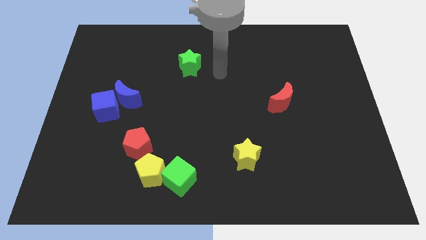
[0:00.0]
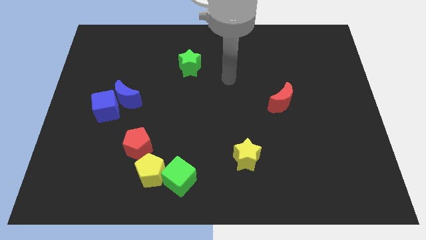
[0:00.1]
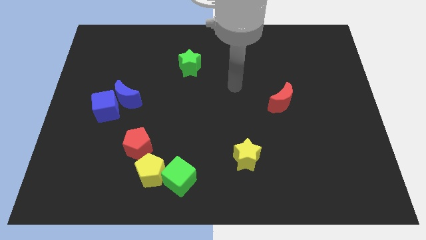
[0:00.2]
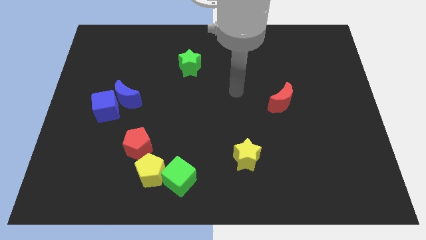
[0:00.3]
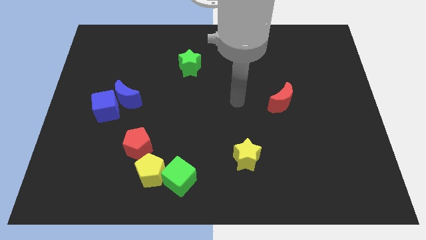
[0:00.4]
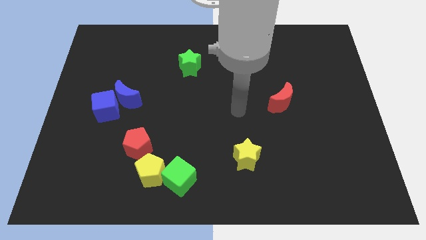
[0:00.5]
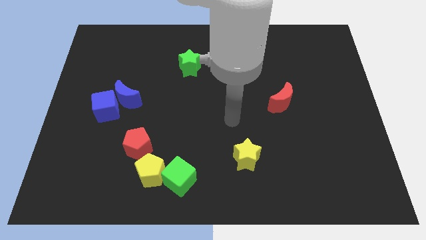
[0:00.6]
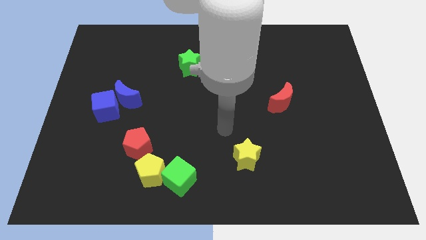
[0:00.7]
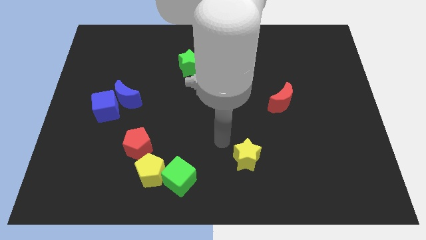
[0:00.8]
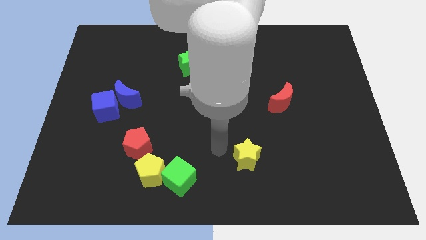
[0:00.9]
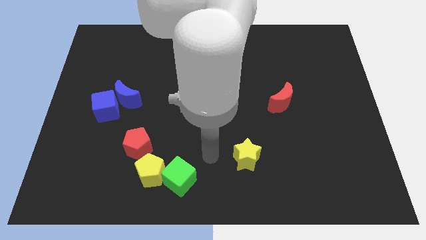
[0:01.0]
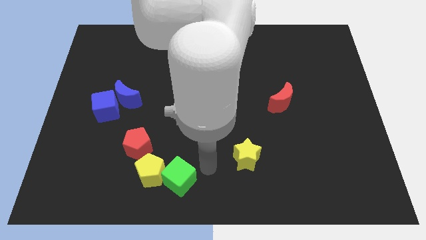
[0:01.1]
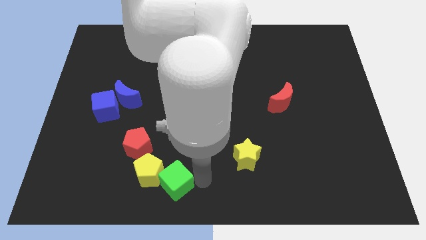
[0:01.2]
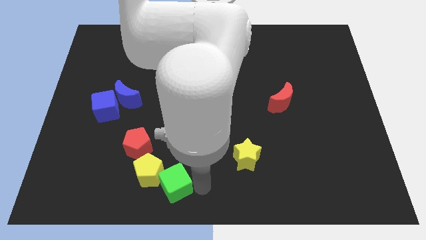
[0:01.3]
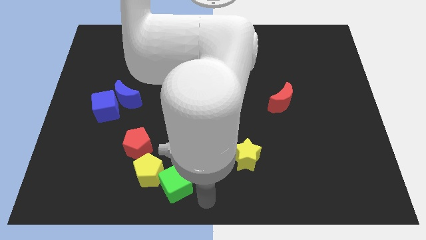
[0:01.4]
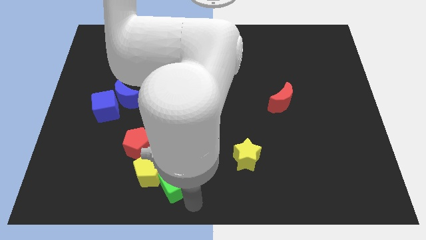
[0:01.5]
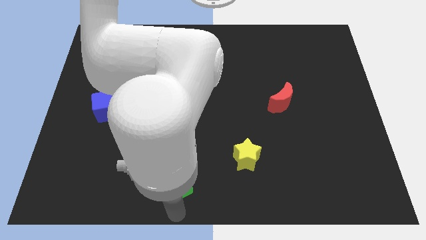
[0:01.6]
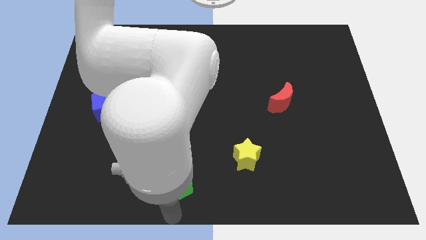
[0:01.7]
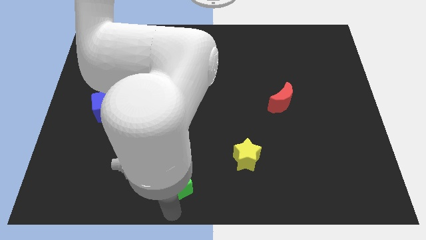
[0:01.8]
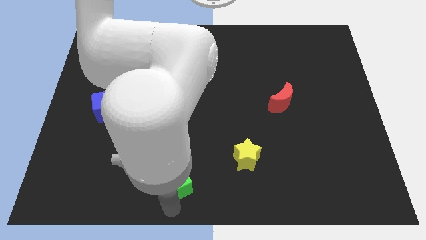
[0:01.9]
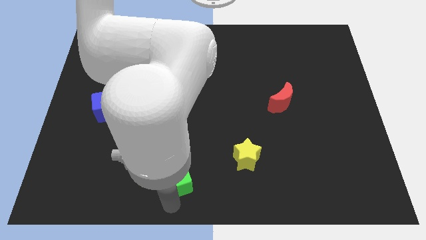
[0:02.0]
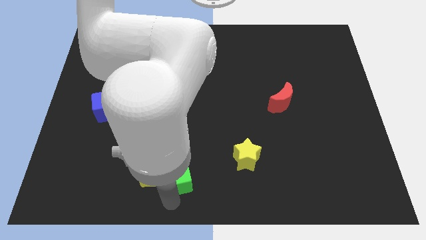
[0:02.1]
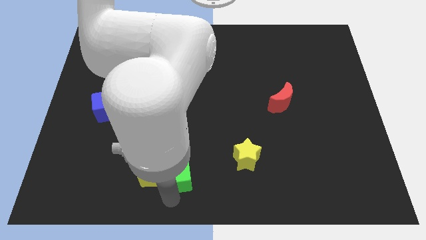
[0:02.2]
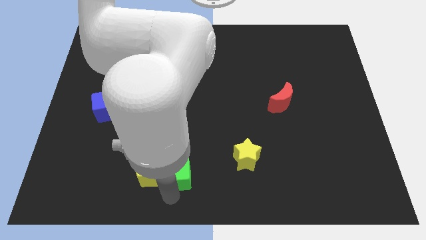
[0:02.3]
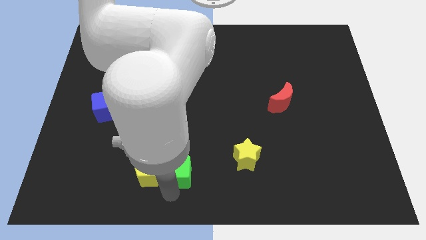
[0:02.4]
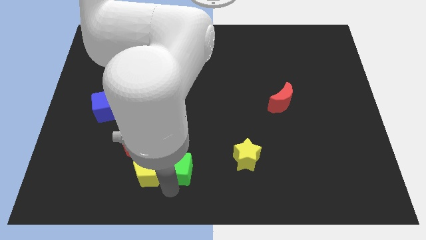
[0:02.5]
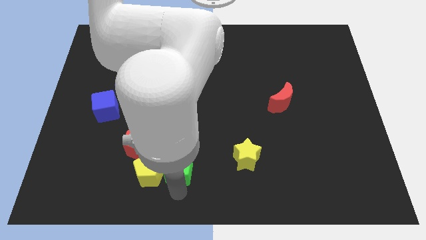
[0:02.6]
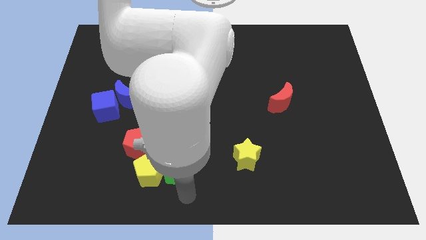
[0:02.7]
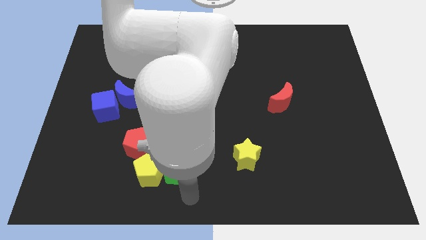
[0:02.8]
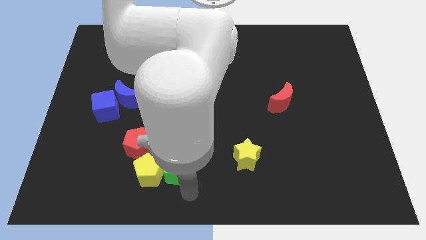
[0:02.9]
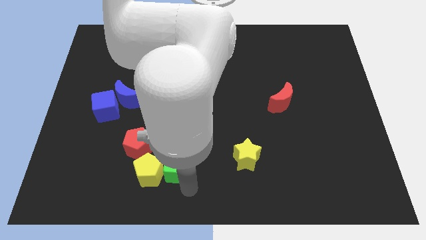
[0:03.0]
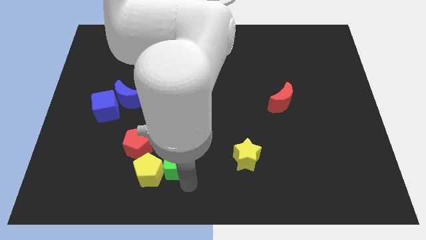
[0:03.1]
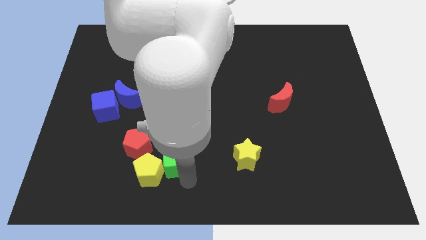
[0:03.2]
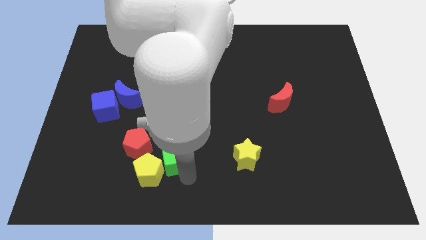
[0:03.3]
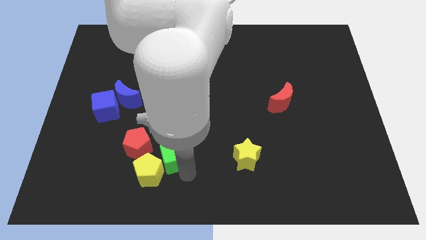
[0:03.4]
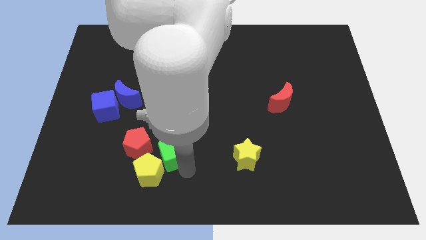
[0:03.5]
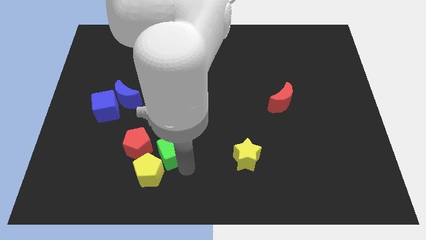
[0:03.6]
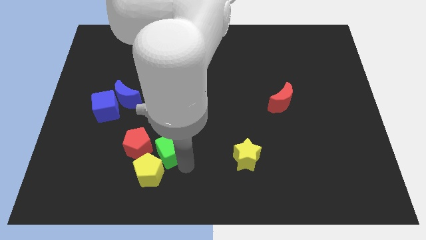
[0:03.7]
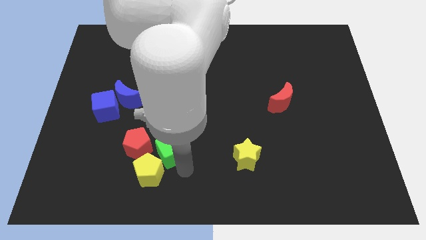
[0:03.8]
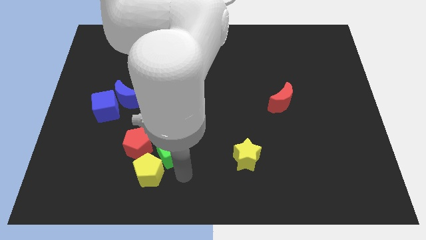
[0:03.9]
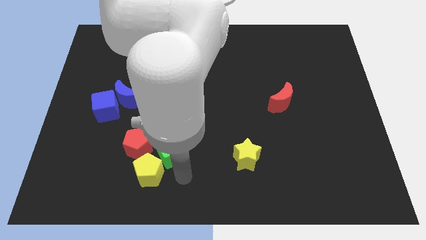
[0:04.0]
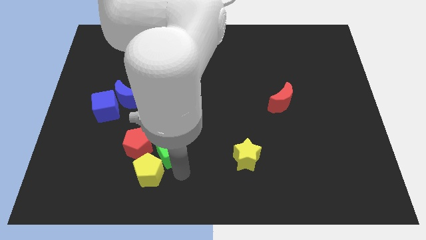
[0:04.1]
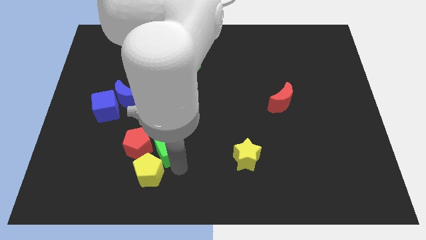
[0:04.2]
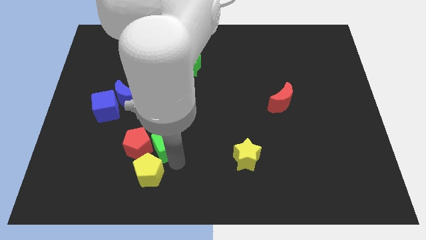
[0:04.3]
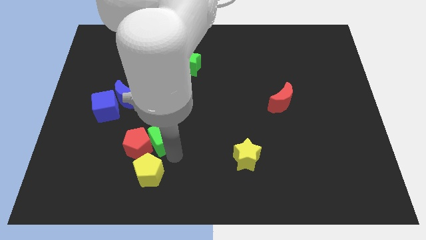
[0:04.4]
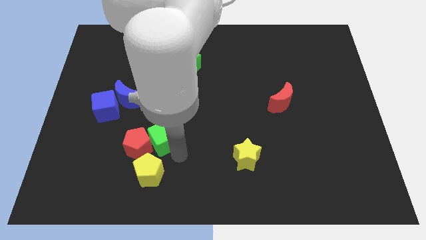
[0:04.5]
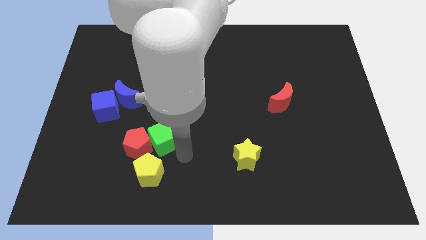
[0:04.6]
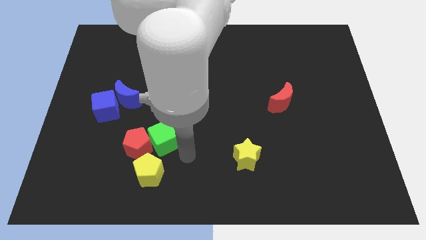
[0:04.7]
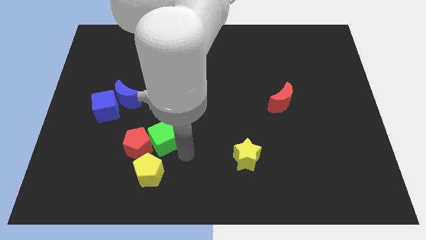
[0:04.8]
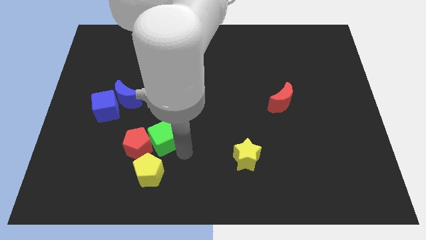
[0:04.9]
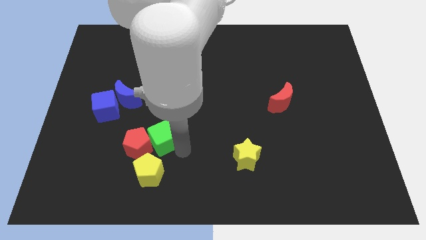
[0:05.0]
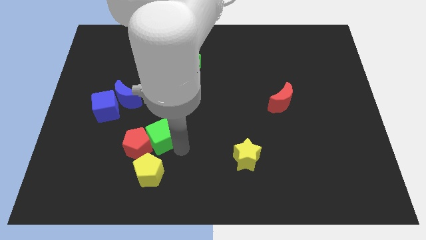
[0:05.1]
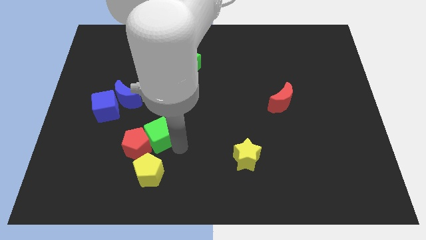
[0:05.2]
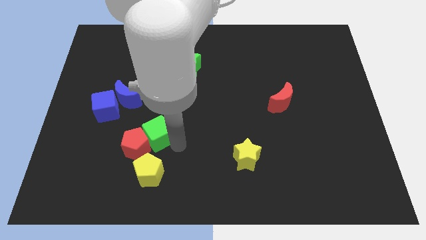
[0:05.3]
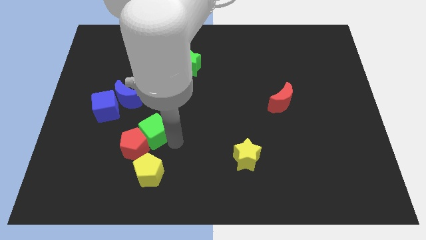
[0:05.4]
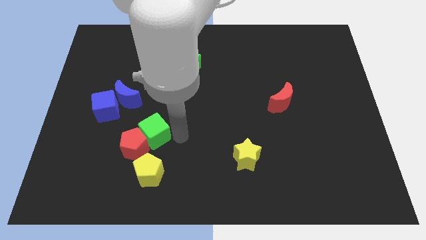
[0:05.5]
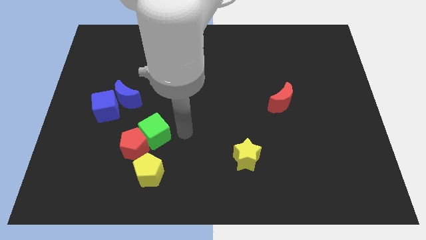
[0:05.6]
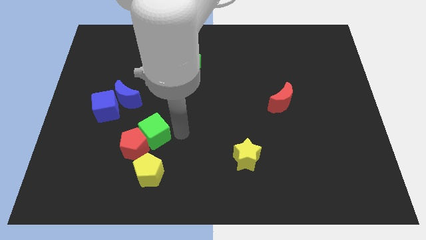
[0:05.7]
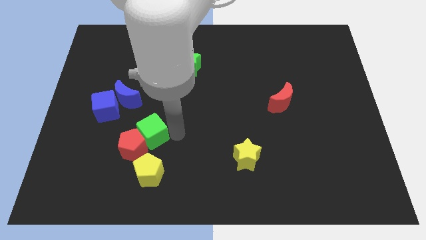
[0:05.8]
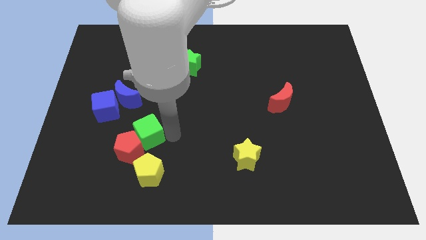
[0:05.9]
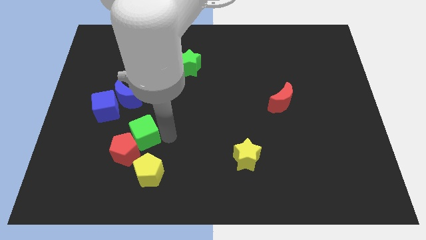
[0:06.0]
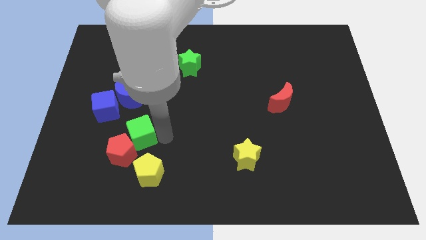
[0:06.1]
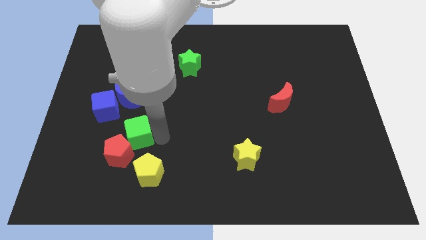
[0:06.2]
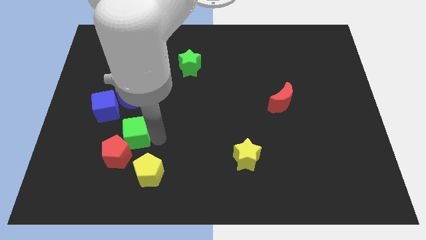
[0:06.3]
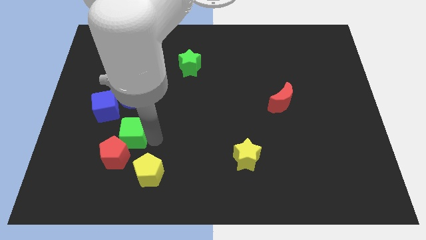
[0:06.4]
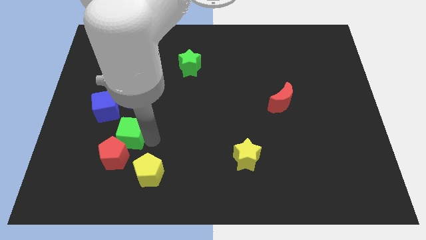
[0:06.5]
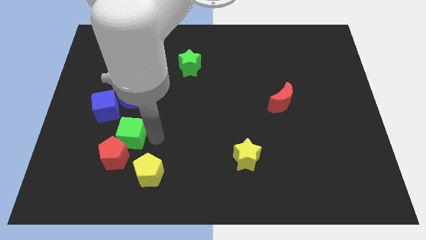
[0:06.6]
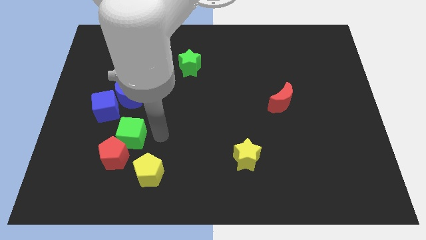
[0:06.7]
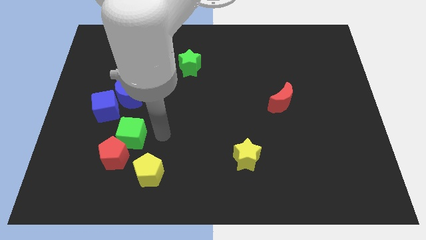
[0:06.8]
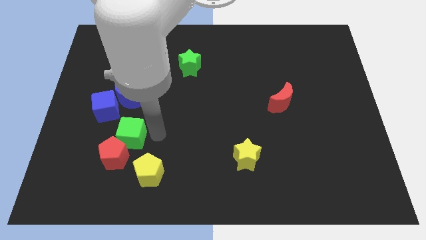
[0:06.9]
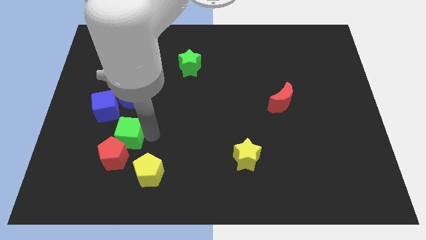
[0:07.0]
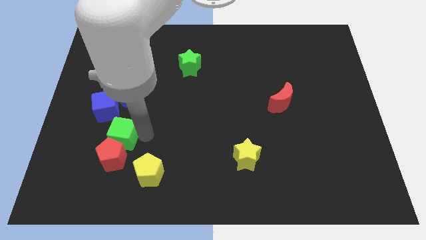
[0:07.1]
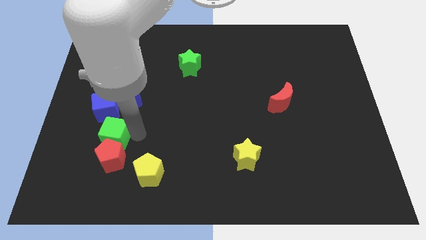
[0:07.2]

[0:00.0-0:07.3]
slide the green cube below the blue cube

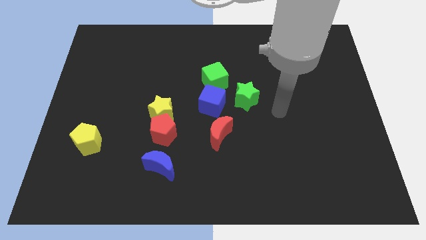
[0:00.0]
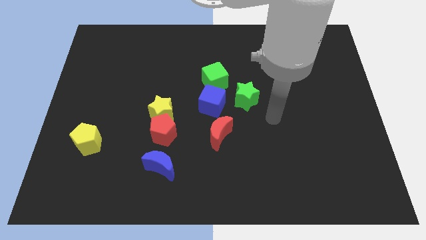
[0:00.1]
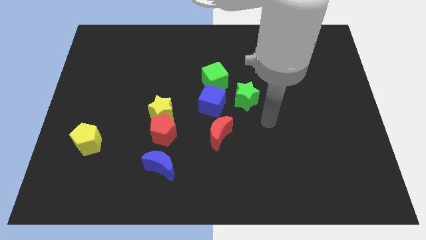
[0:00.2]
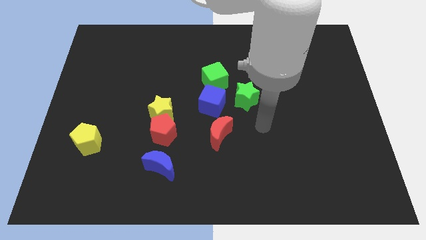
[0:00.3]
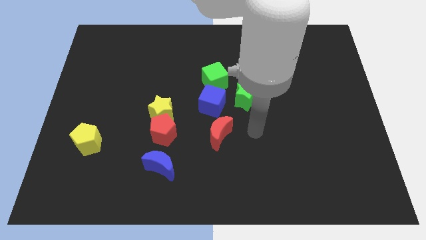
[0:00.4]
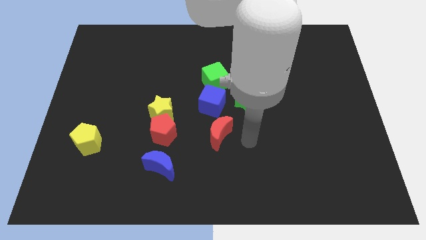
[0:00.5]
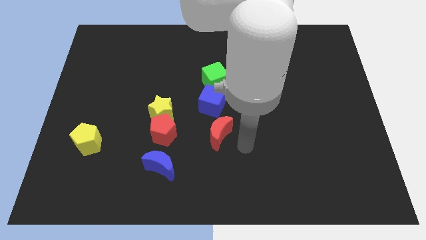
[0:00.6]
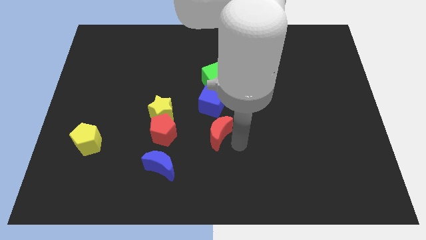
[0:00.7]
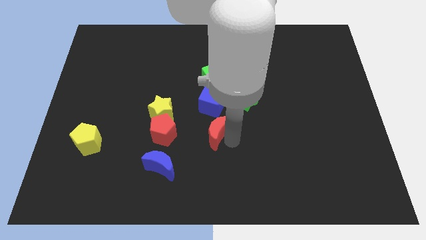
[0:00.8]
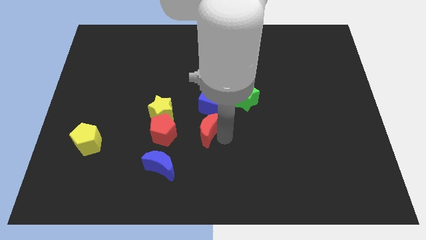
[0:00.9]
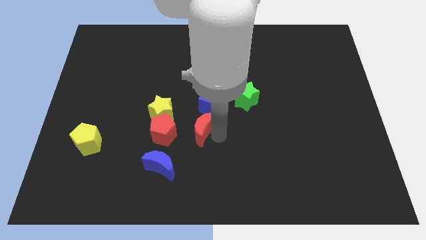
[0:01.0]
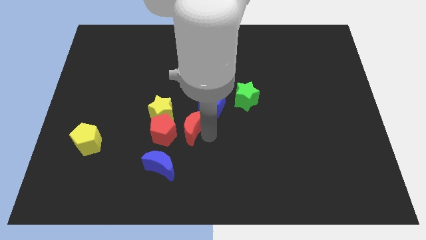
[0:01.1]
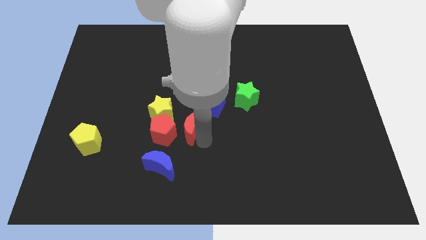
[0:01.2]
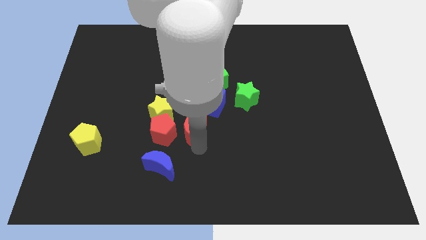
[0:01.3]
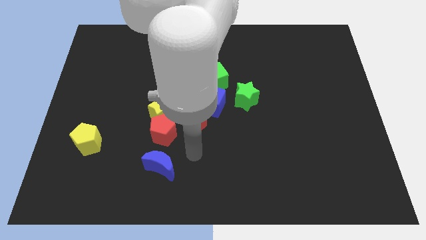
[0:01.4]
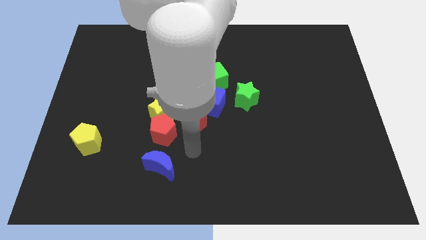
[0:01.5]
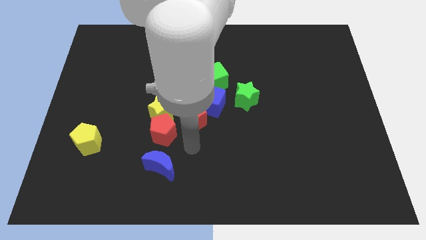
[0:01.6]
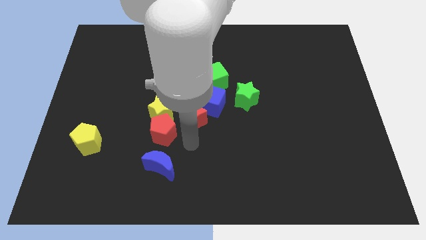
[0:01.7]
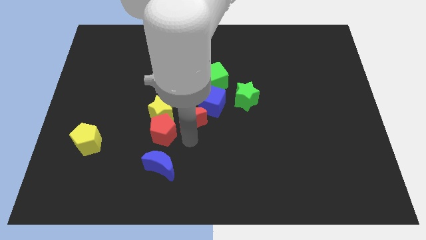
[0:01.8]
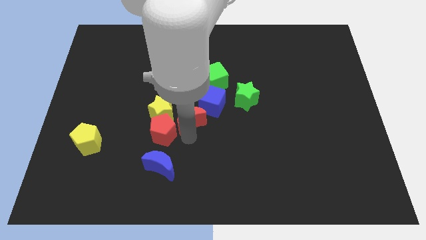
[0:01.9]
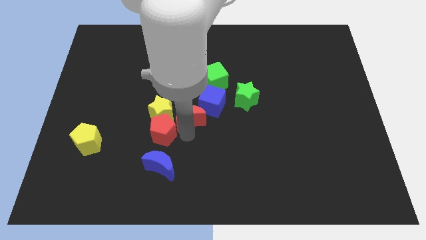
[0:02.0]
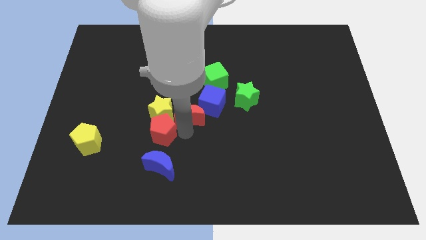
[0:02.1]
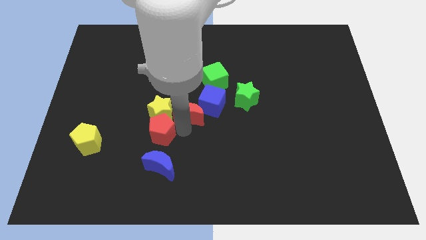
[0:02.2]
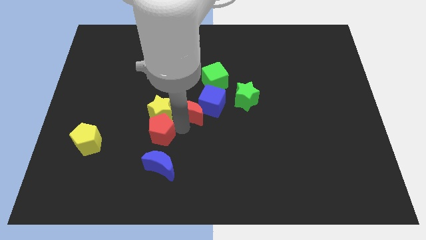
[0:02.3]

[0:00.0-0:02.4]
slide the red moon diagonally down and to the left of the green cube
